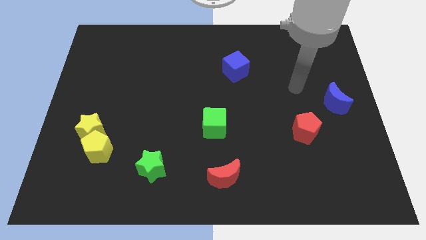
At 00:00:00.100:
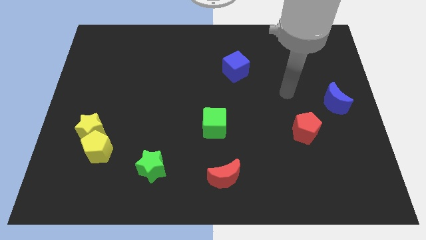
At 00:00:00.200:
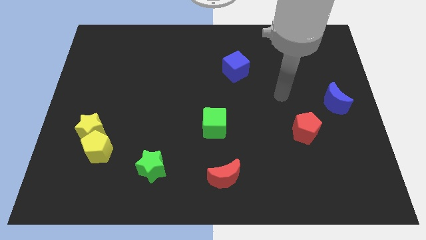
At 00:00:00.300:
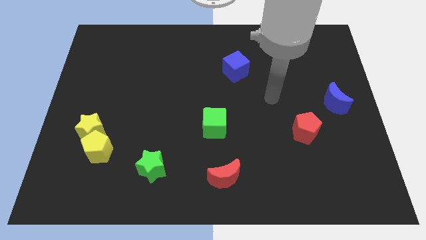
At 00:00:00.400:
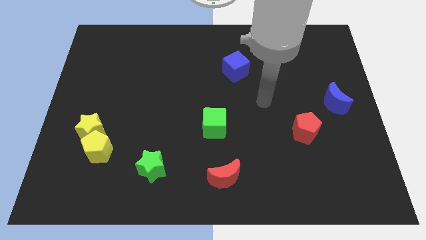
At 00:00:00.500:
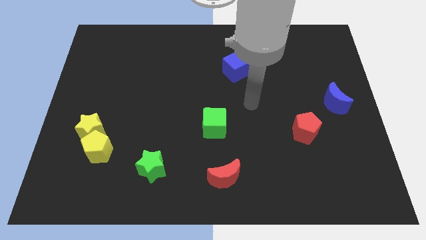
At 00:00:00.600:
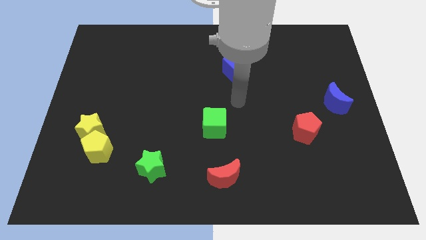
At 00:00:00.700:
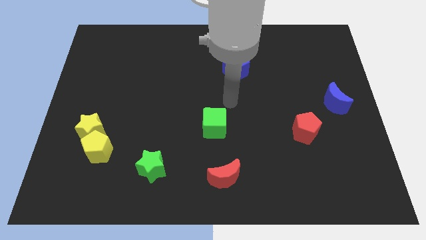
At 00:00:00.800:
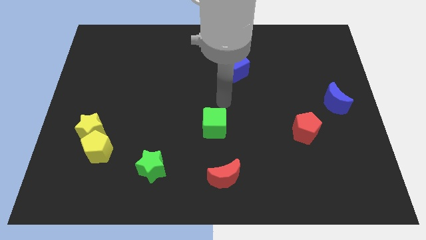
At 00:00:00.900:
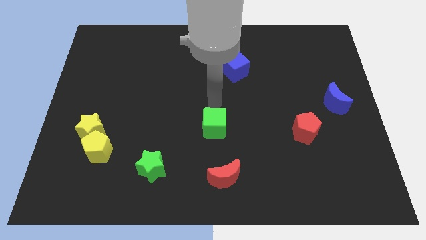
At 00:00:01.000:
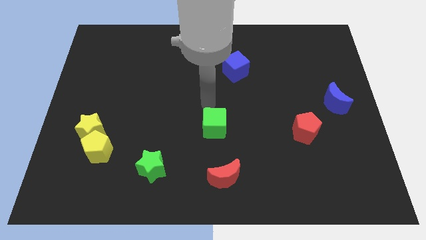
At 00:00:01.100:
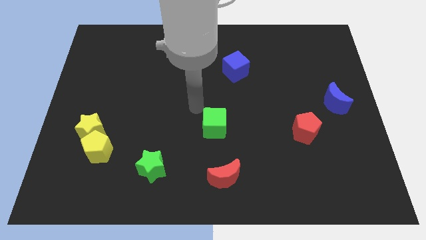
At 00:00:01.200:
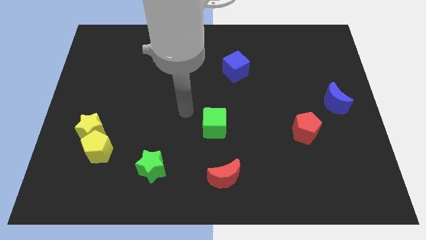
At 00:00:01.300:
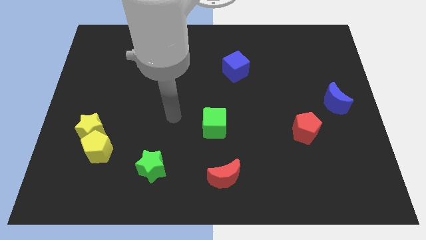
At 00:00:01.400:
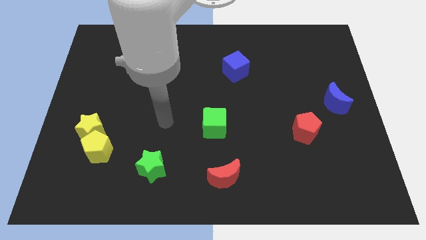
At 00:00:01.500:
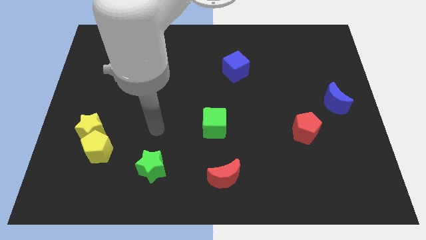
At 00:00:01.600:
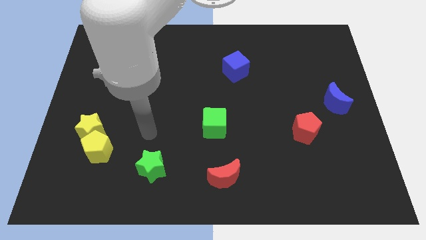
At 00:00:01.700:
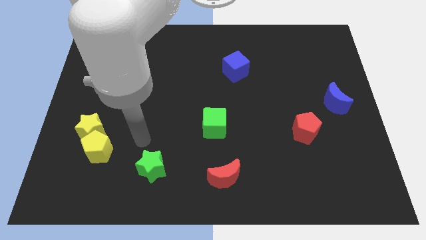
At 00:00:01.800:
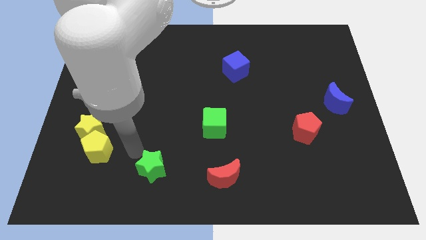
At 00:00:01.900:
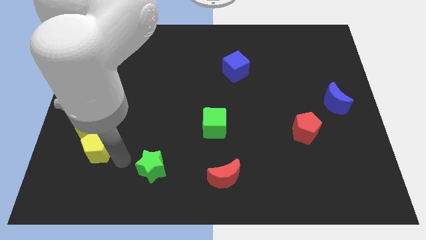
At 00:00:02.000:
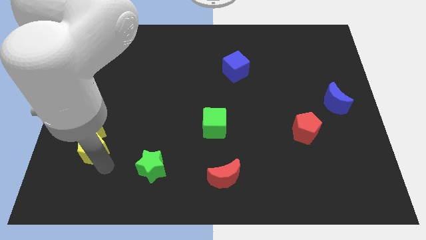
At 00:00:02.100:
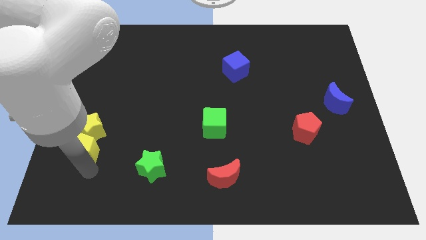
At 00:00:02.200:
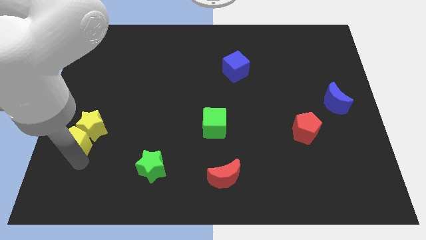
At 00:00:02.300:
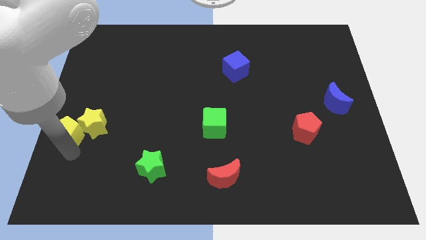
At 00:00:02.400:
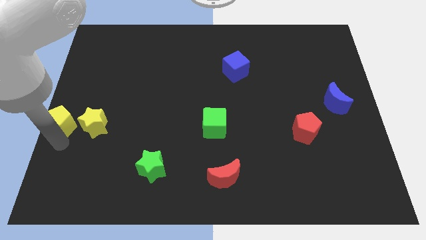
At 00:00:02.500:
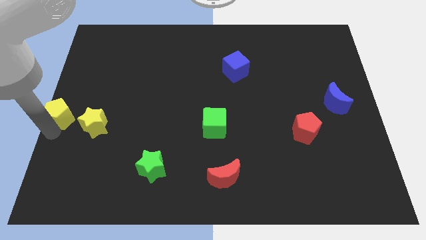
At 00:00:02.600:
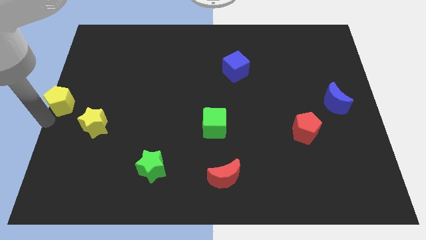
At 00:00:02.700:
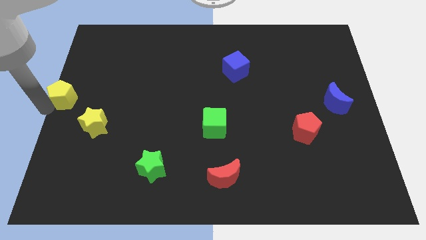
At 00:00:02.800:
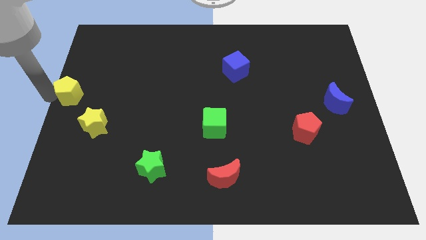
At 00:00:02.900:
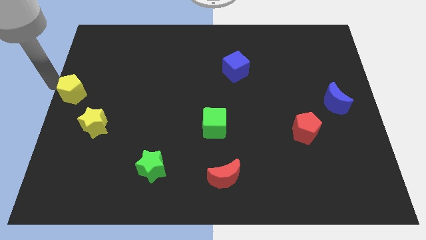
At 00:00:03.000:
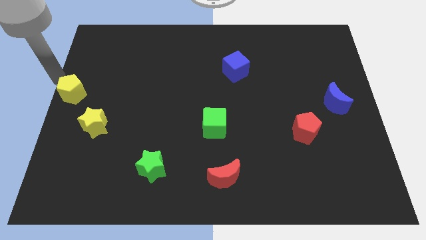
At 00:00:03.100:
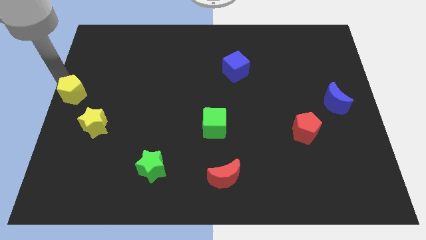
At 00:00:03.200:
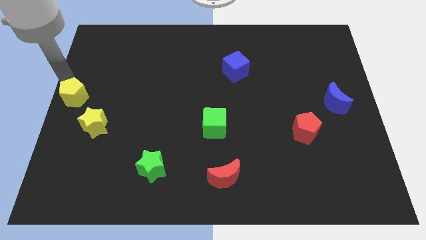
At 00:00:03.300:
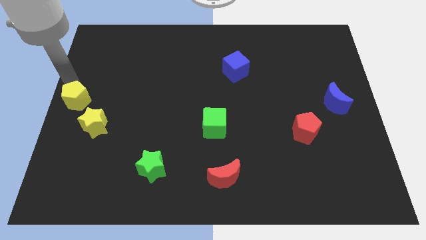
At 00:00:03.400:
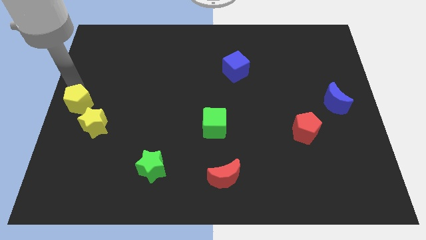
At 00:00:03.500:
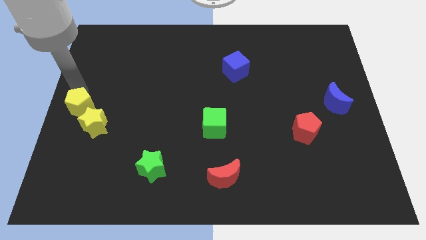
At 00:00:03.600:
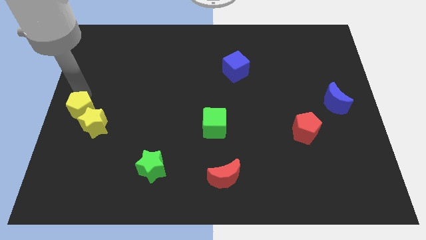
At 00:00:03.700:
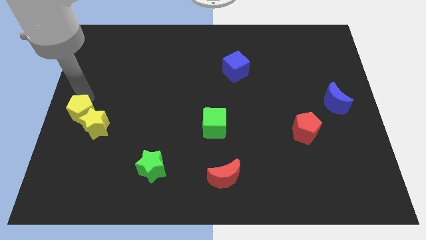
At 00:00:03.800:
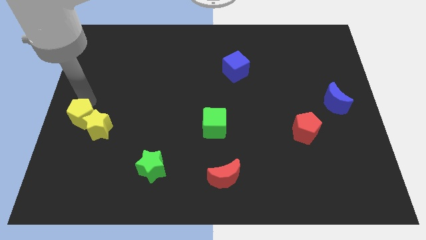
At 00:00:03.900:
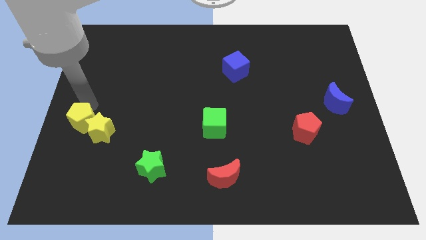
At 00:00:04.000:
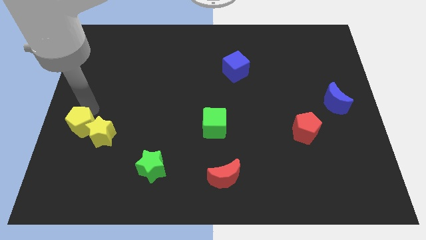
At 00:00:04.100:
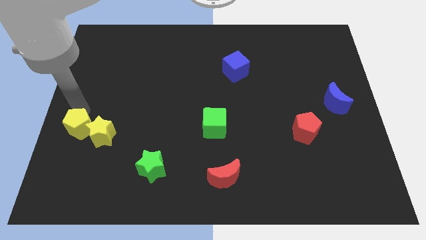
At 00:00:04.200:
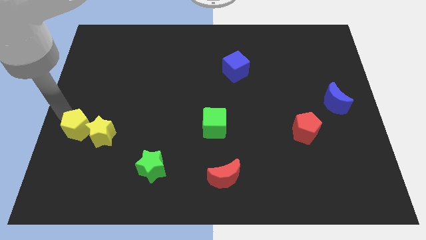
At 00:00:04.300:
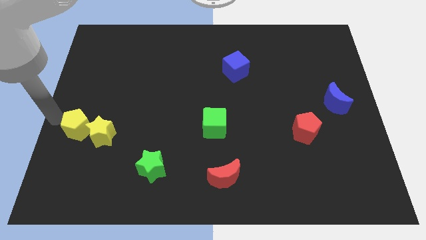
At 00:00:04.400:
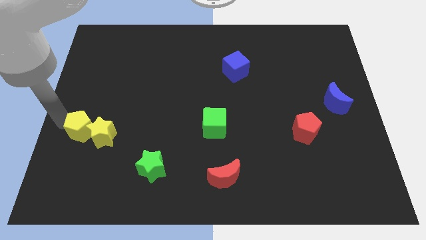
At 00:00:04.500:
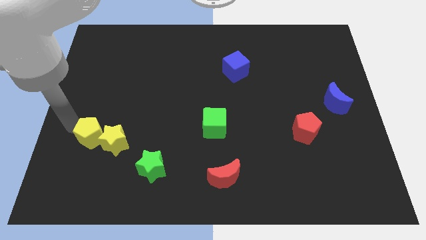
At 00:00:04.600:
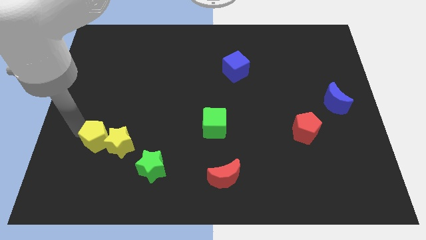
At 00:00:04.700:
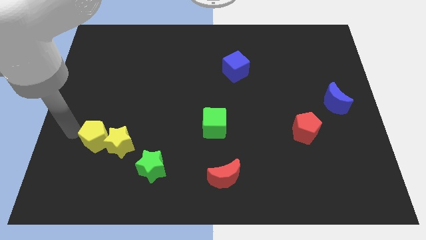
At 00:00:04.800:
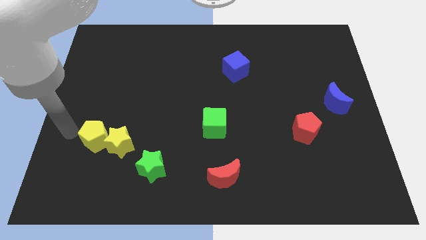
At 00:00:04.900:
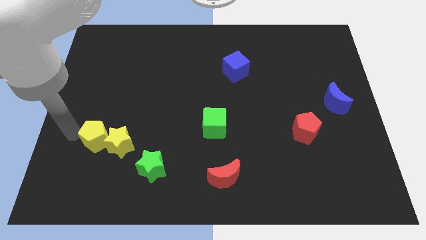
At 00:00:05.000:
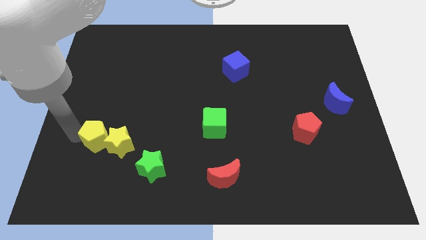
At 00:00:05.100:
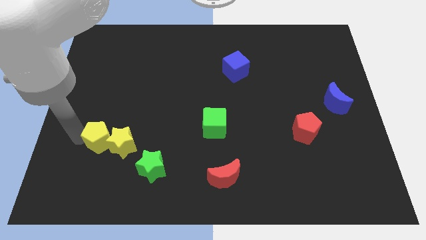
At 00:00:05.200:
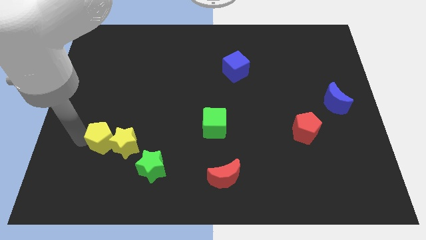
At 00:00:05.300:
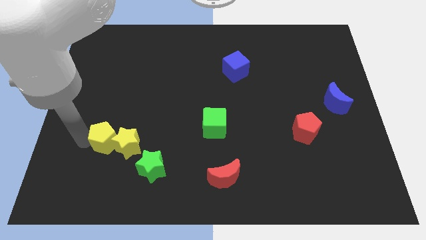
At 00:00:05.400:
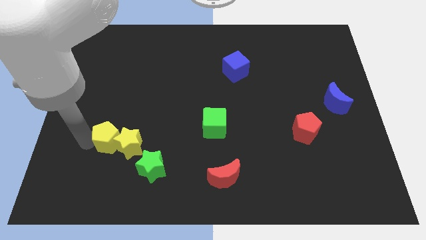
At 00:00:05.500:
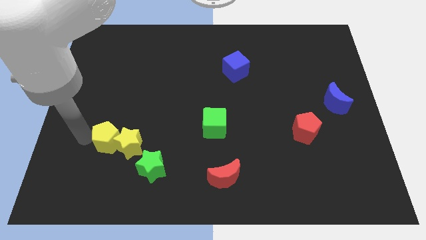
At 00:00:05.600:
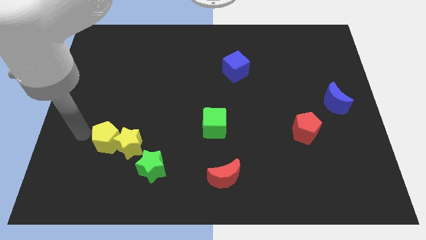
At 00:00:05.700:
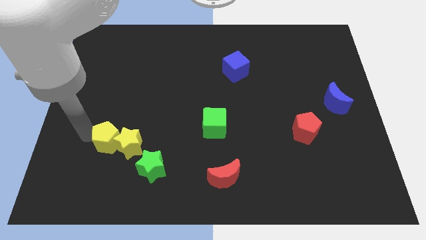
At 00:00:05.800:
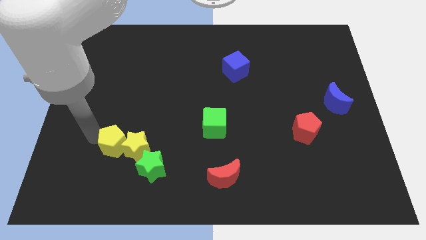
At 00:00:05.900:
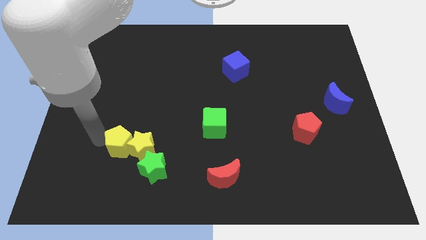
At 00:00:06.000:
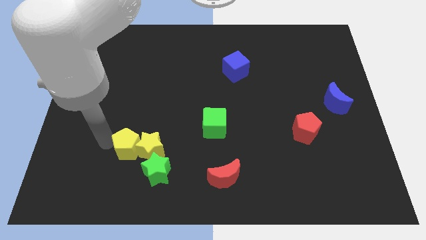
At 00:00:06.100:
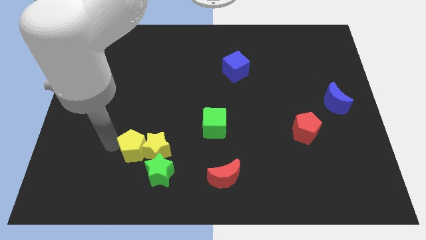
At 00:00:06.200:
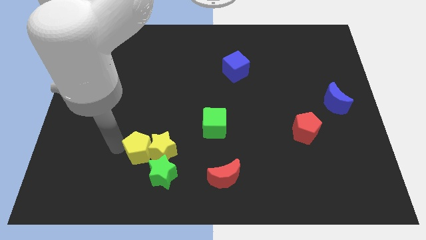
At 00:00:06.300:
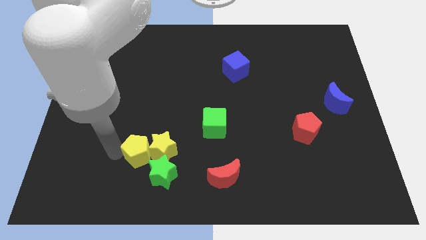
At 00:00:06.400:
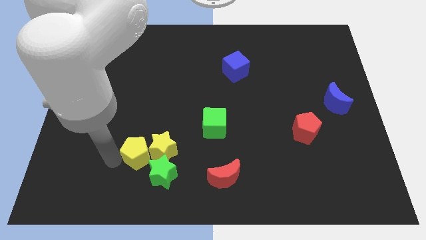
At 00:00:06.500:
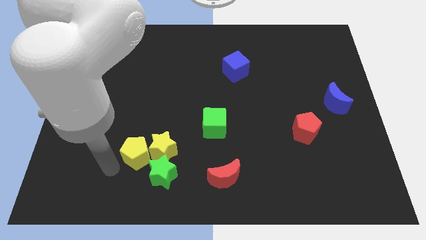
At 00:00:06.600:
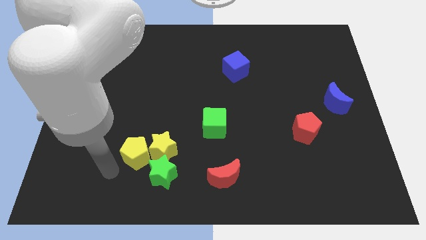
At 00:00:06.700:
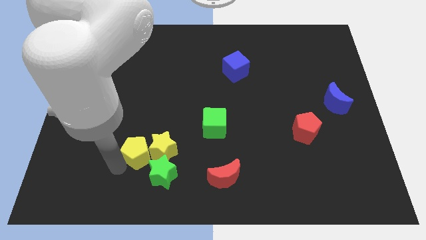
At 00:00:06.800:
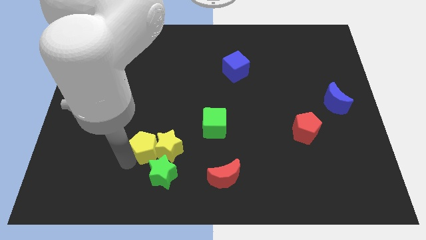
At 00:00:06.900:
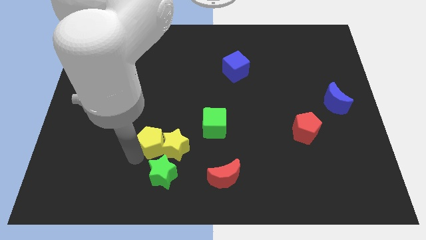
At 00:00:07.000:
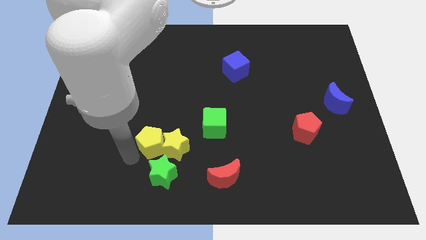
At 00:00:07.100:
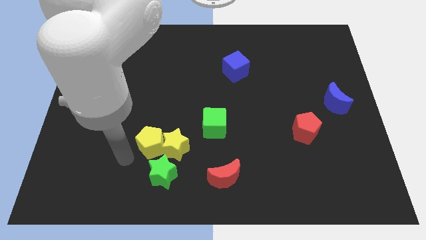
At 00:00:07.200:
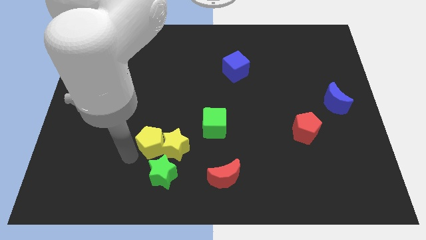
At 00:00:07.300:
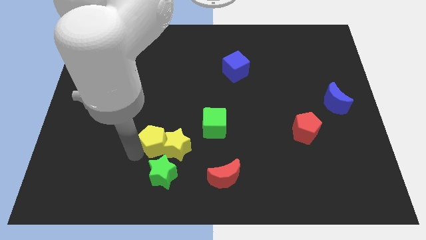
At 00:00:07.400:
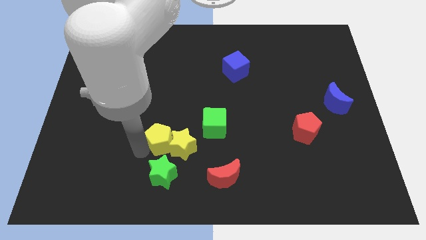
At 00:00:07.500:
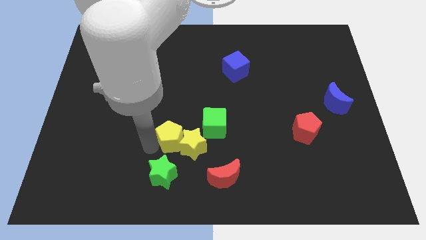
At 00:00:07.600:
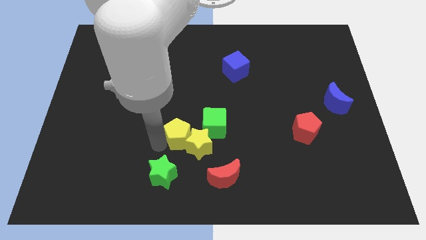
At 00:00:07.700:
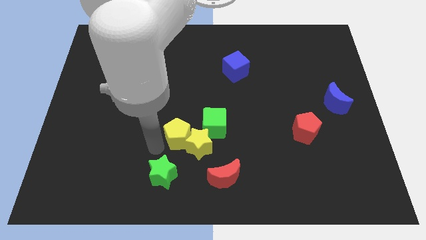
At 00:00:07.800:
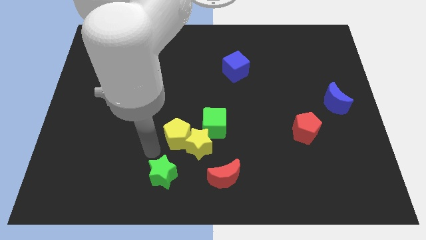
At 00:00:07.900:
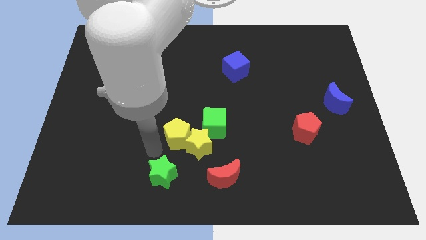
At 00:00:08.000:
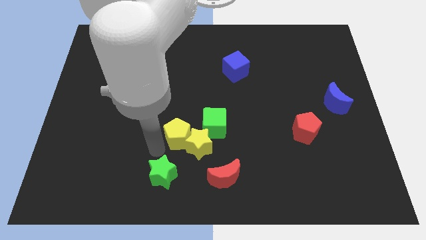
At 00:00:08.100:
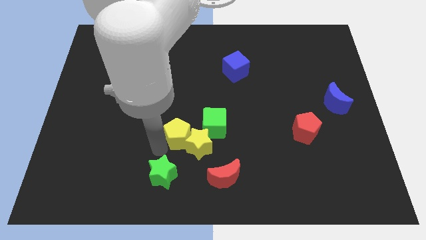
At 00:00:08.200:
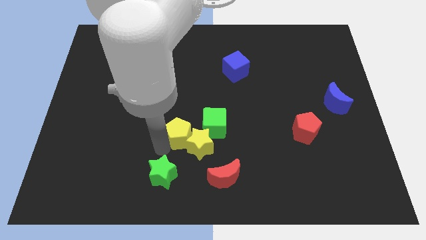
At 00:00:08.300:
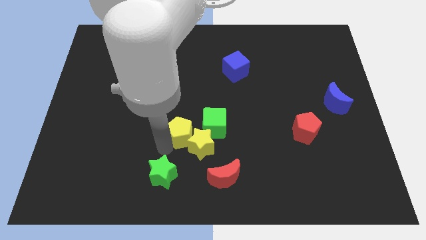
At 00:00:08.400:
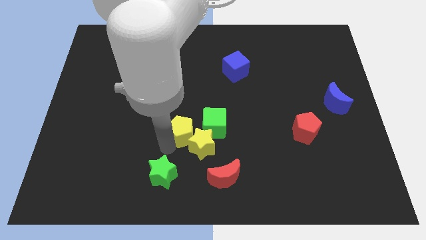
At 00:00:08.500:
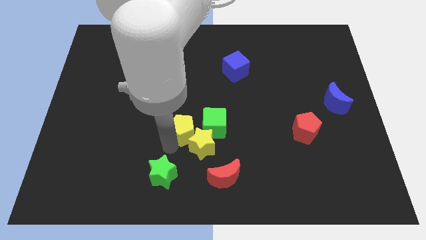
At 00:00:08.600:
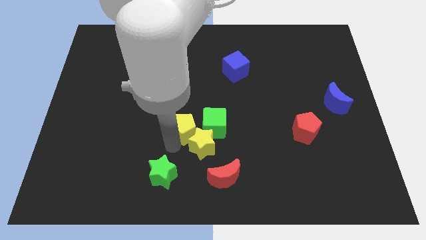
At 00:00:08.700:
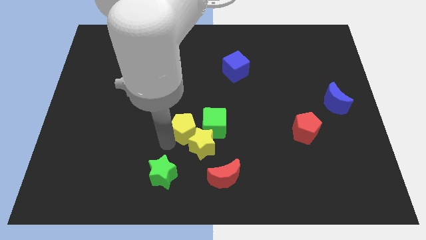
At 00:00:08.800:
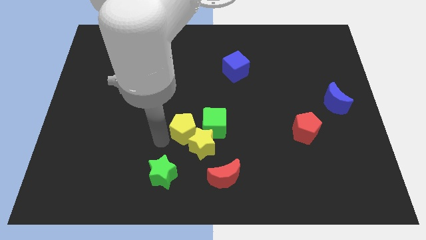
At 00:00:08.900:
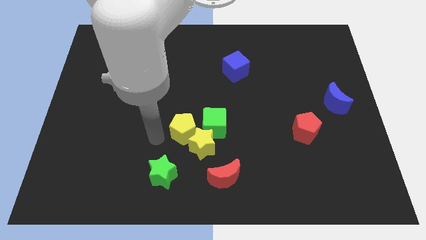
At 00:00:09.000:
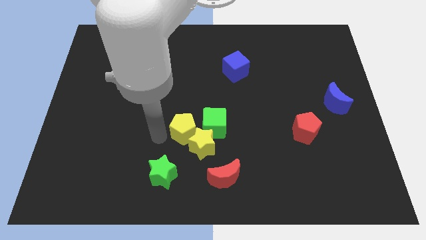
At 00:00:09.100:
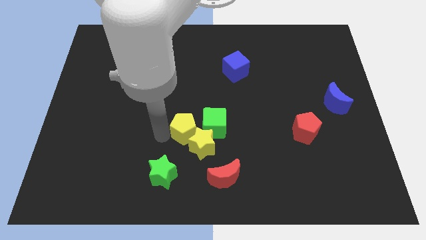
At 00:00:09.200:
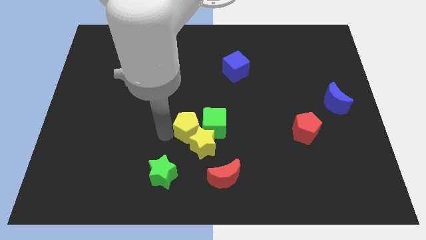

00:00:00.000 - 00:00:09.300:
put the yellow pentagon to the green cube
